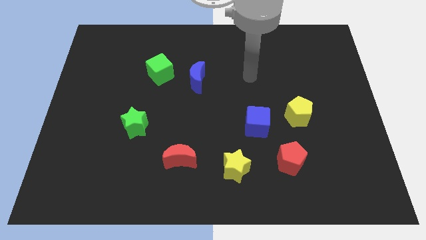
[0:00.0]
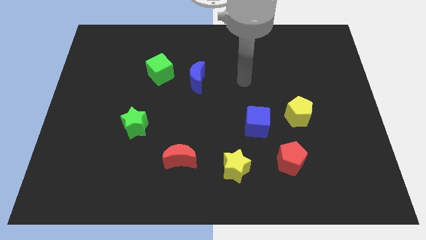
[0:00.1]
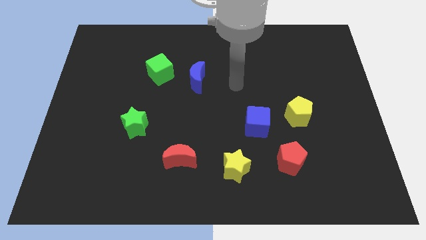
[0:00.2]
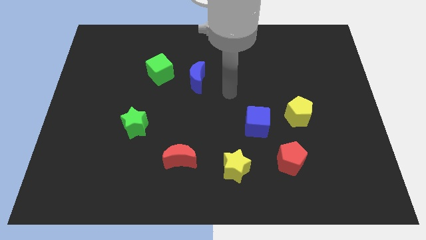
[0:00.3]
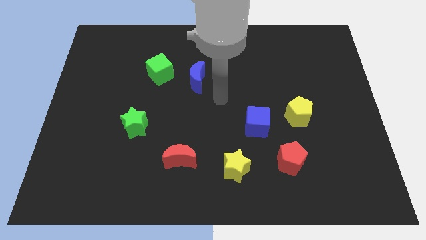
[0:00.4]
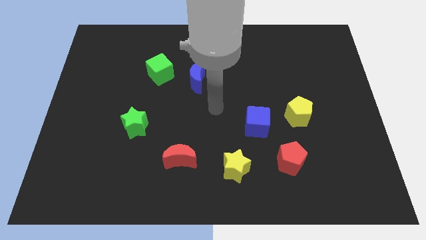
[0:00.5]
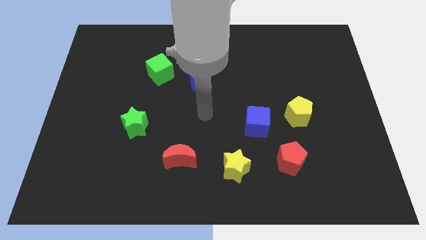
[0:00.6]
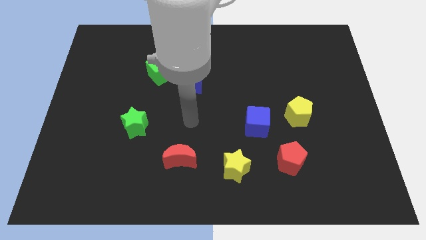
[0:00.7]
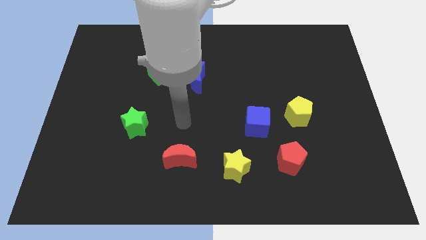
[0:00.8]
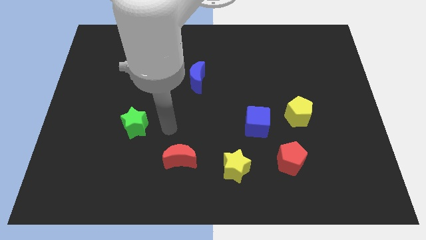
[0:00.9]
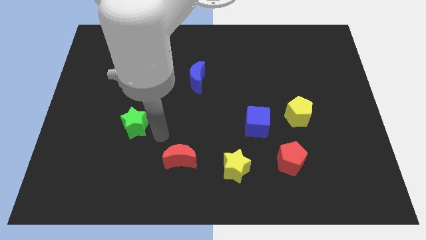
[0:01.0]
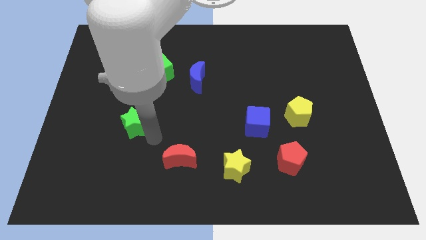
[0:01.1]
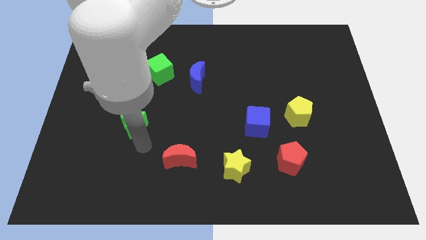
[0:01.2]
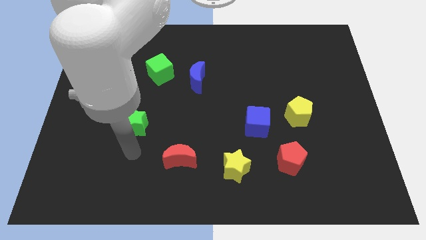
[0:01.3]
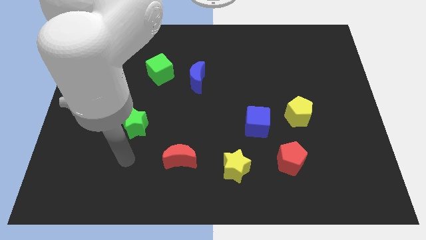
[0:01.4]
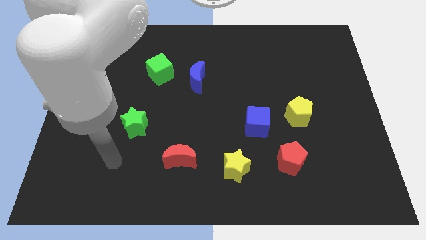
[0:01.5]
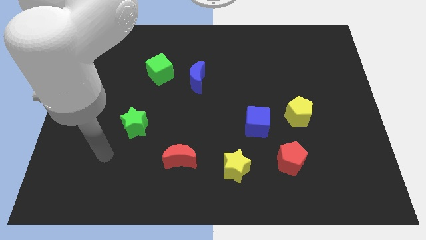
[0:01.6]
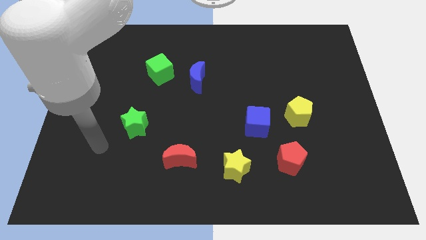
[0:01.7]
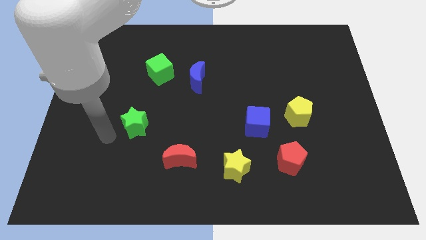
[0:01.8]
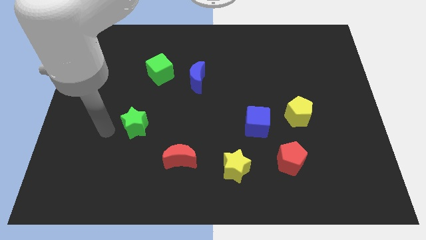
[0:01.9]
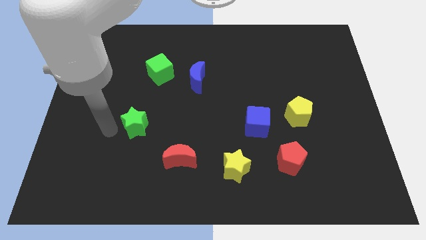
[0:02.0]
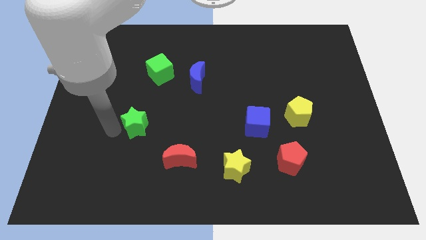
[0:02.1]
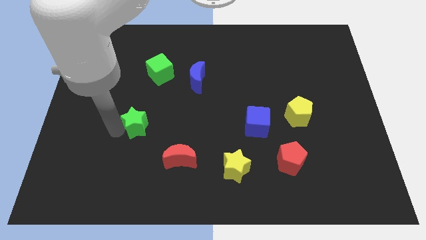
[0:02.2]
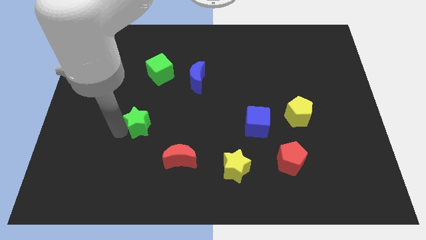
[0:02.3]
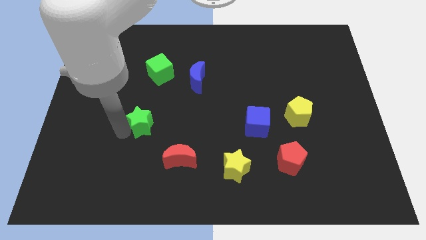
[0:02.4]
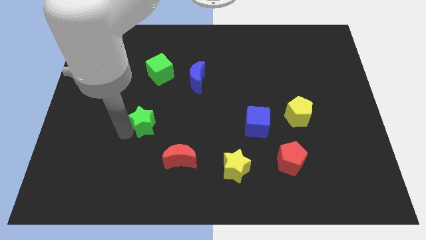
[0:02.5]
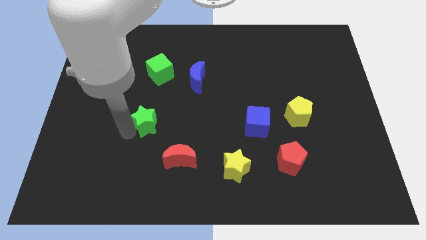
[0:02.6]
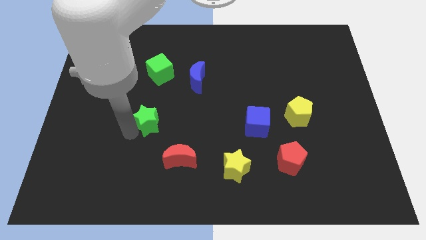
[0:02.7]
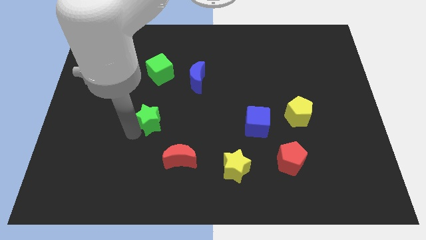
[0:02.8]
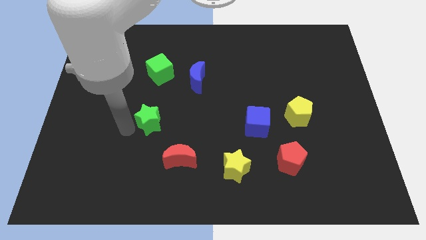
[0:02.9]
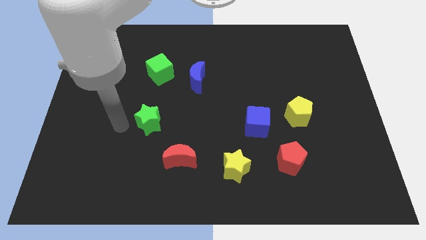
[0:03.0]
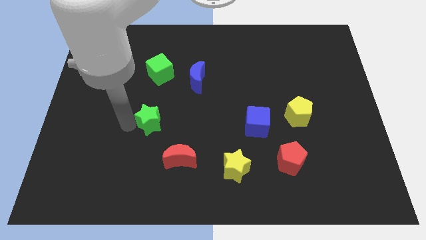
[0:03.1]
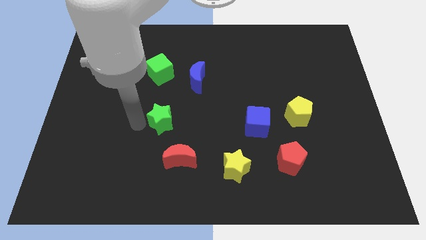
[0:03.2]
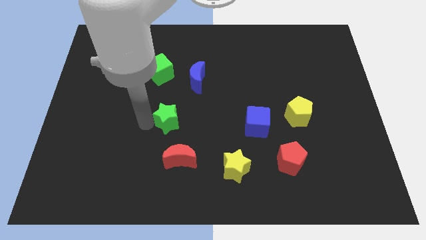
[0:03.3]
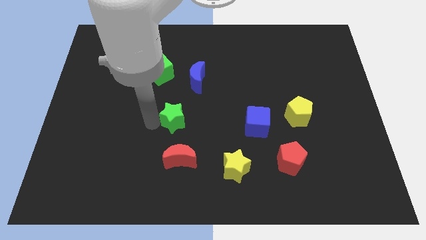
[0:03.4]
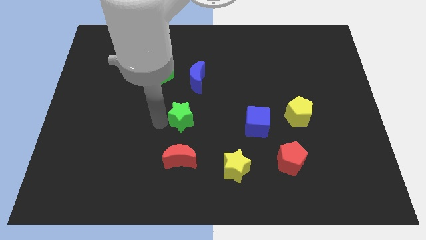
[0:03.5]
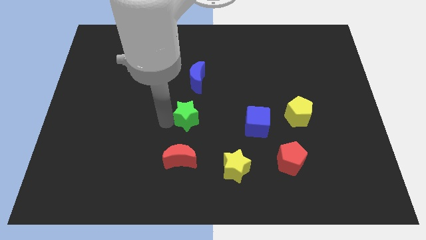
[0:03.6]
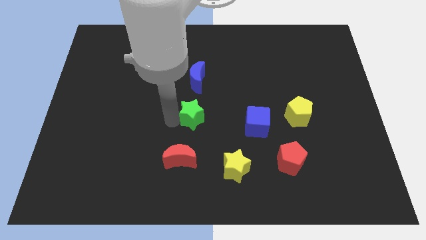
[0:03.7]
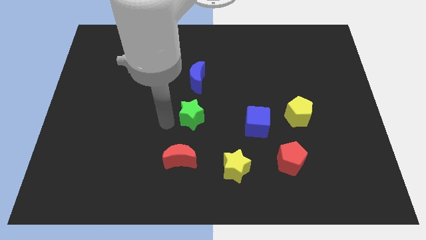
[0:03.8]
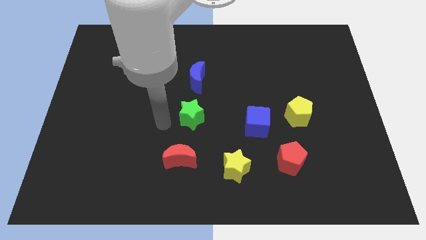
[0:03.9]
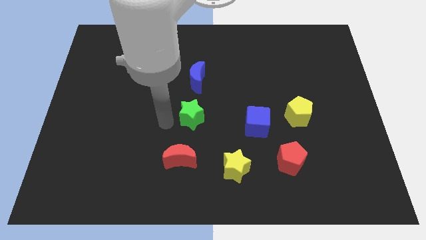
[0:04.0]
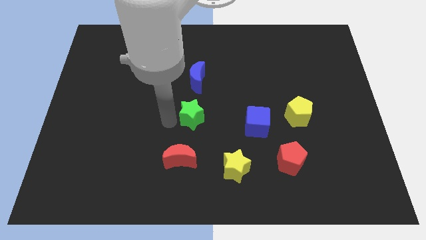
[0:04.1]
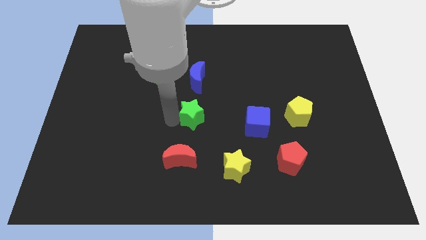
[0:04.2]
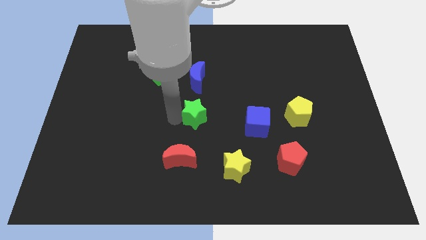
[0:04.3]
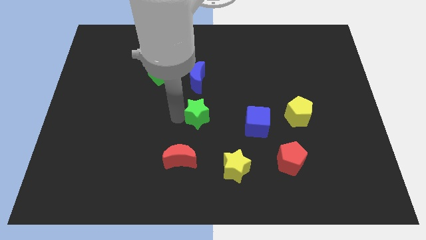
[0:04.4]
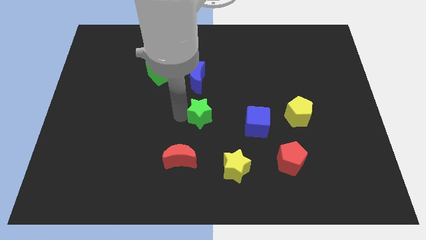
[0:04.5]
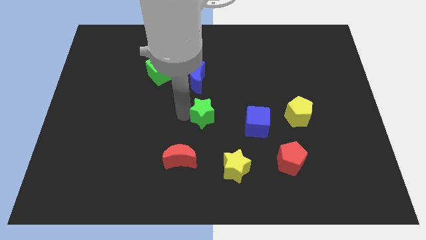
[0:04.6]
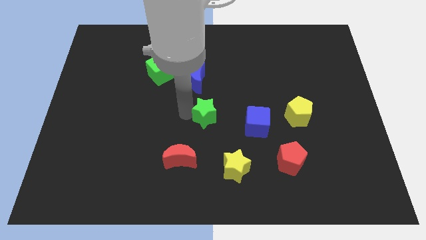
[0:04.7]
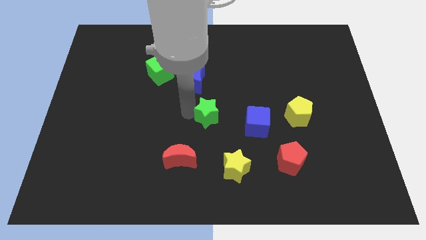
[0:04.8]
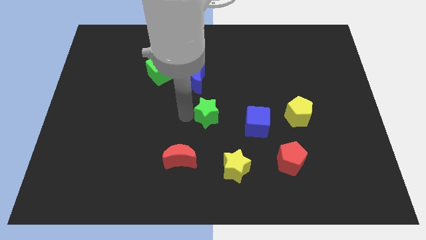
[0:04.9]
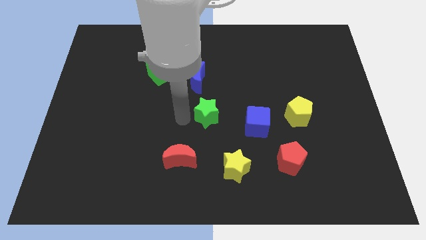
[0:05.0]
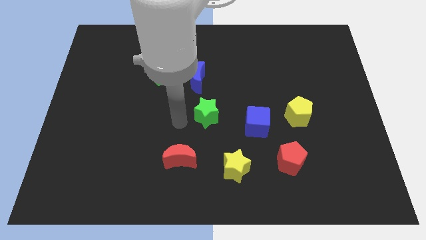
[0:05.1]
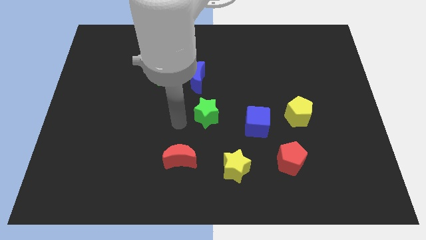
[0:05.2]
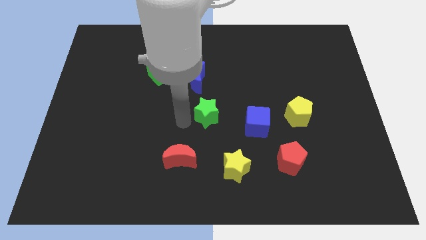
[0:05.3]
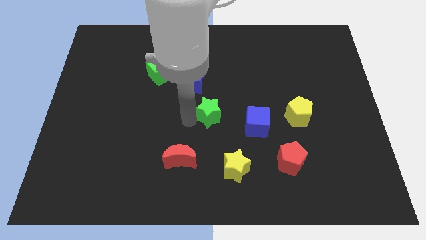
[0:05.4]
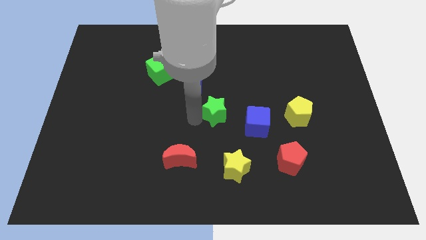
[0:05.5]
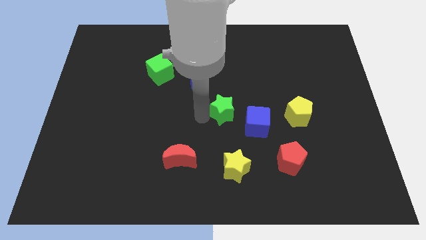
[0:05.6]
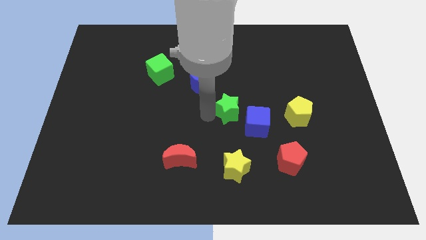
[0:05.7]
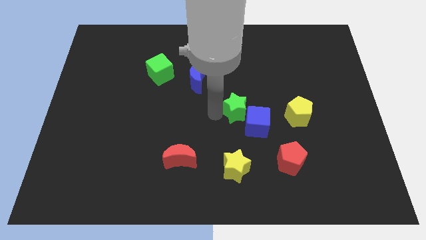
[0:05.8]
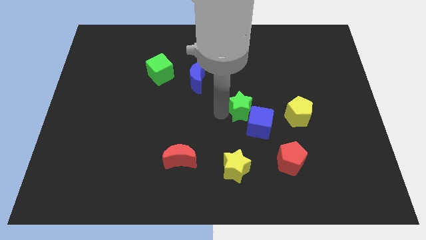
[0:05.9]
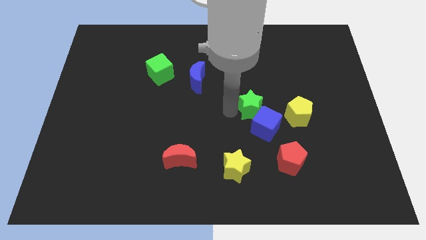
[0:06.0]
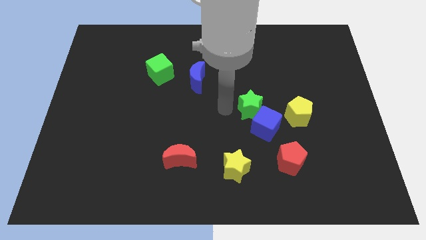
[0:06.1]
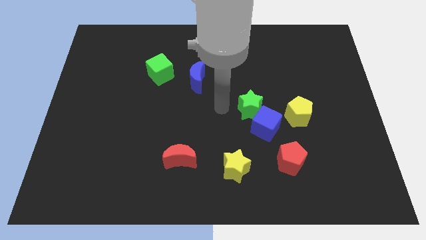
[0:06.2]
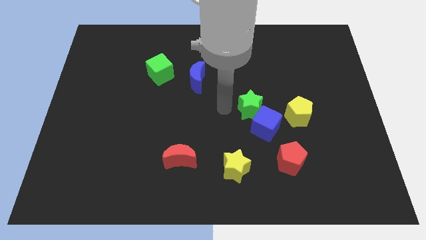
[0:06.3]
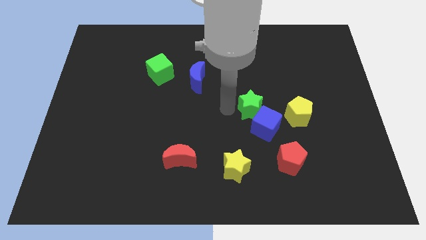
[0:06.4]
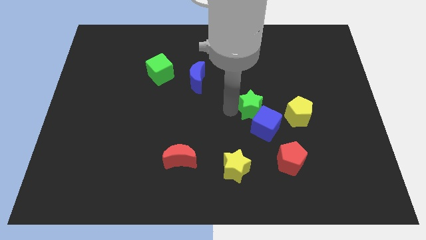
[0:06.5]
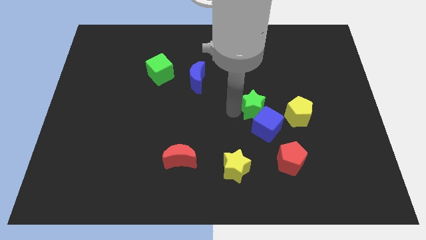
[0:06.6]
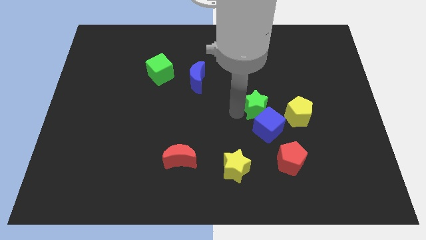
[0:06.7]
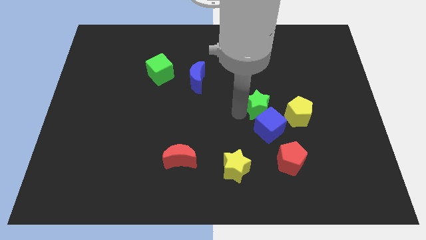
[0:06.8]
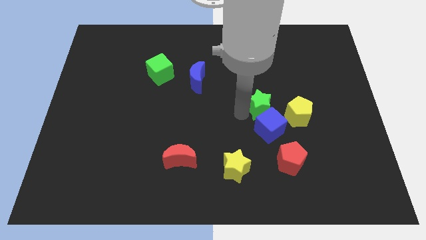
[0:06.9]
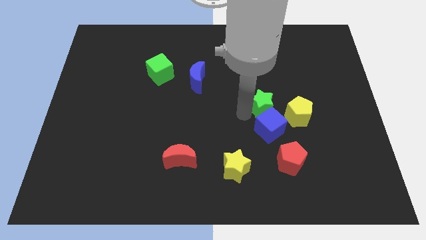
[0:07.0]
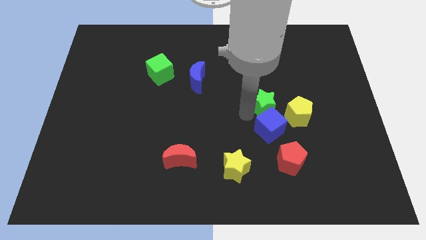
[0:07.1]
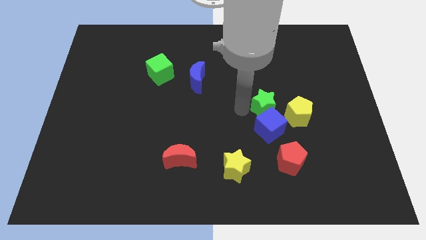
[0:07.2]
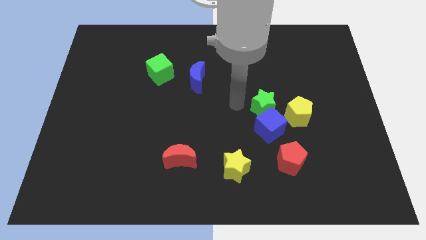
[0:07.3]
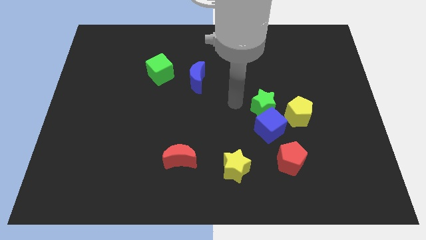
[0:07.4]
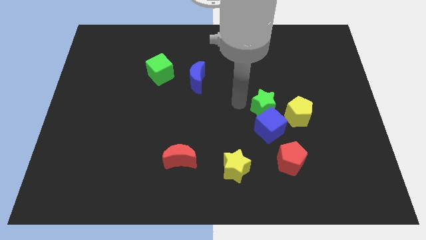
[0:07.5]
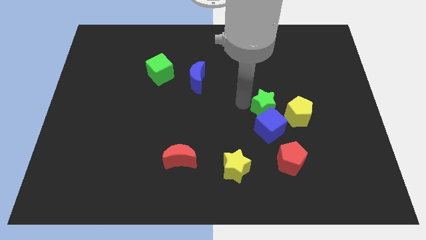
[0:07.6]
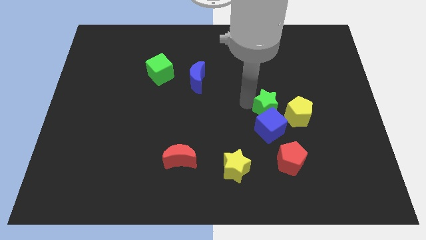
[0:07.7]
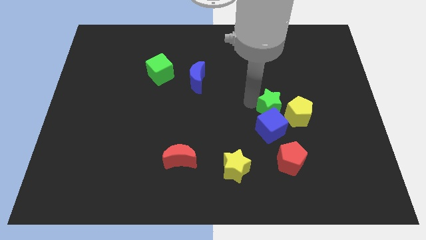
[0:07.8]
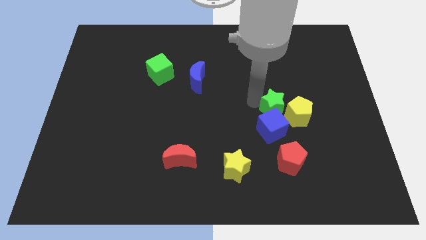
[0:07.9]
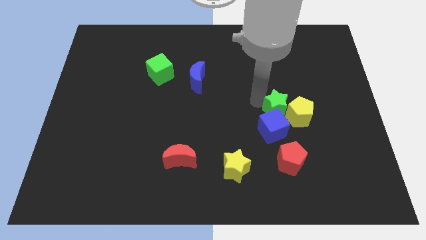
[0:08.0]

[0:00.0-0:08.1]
slide the green star next to the yellow pentagon
